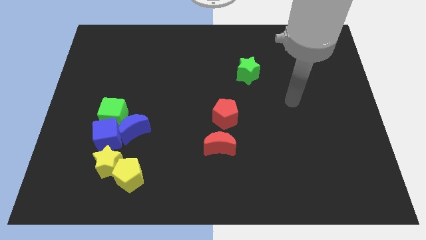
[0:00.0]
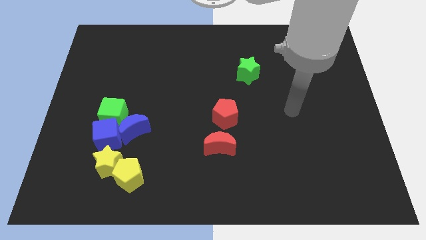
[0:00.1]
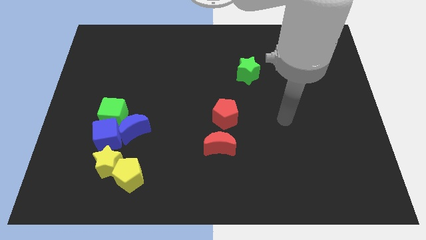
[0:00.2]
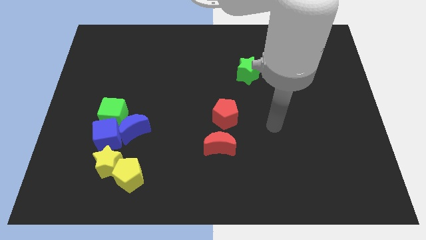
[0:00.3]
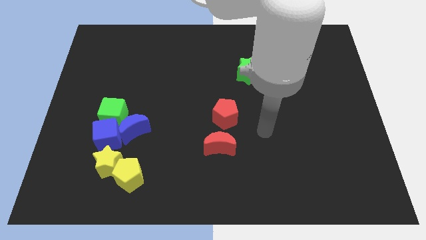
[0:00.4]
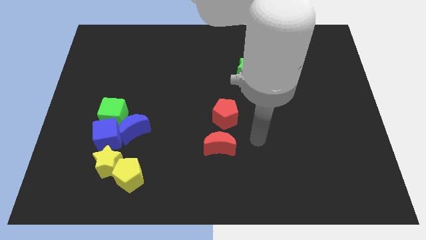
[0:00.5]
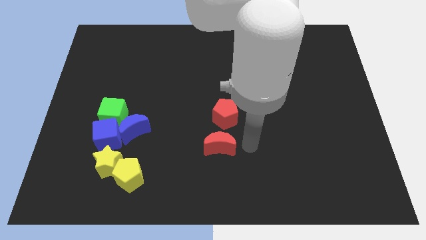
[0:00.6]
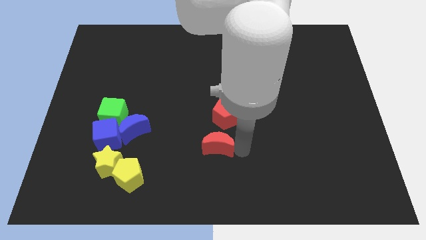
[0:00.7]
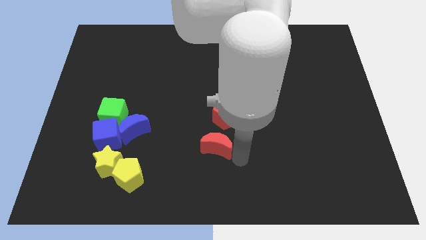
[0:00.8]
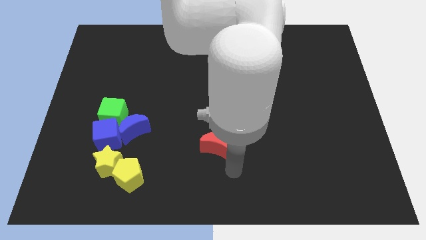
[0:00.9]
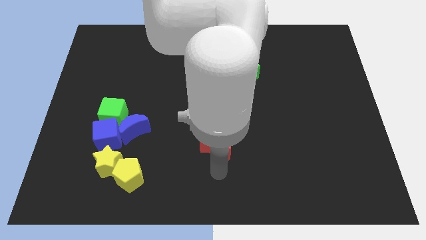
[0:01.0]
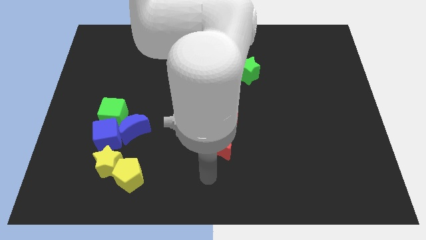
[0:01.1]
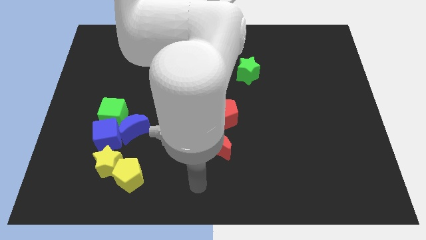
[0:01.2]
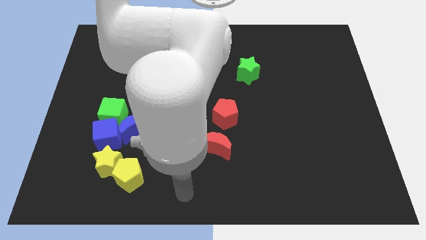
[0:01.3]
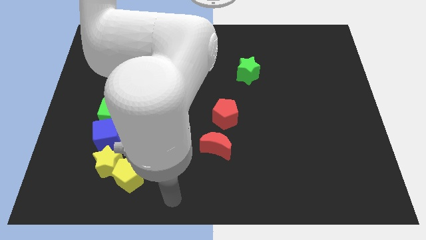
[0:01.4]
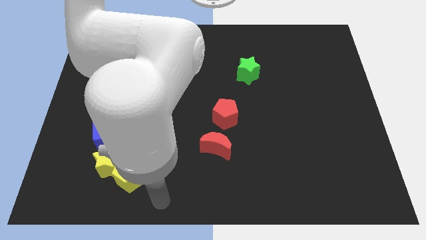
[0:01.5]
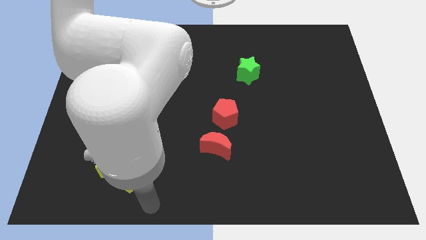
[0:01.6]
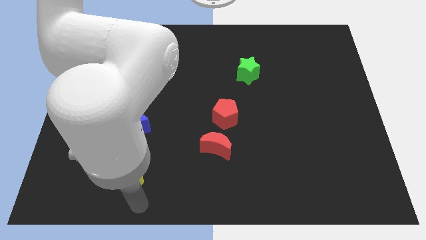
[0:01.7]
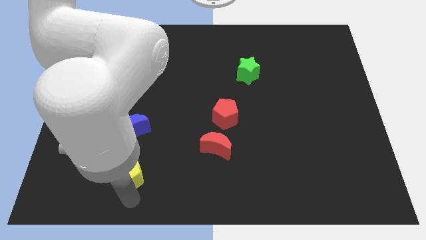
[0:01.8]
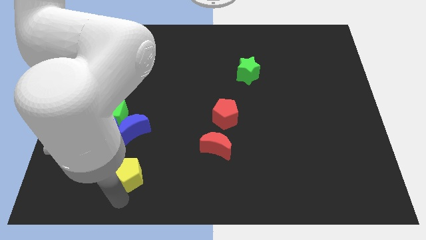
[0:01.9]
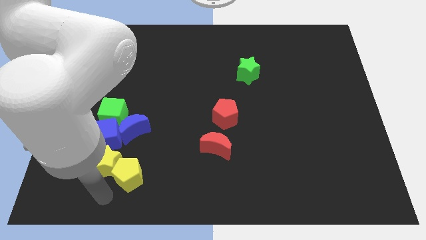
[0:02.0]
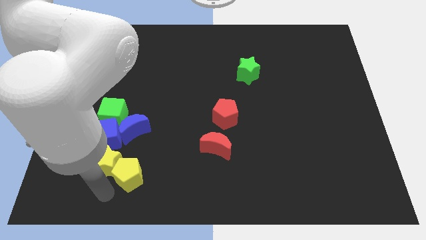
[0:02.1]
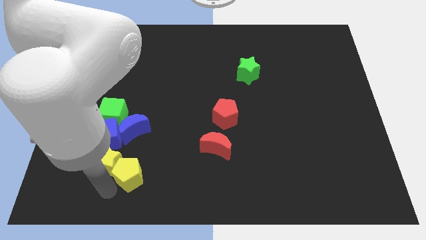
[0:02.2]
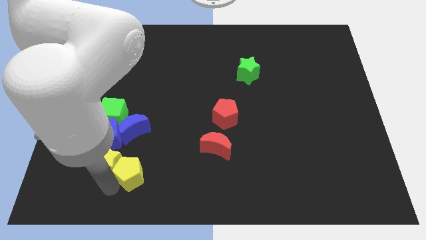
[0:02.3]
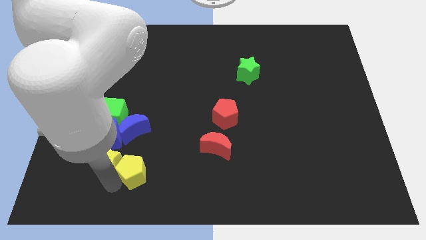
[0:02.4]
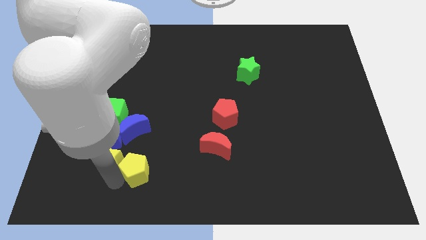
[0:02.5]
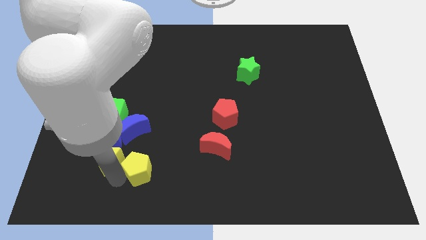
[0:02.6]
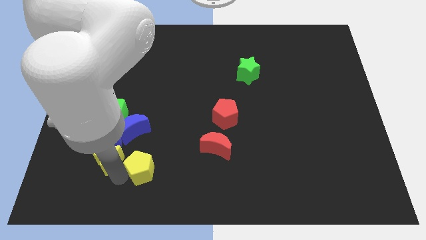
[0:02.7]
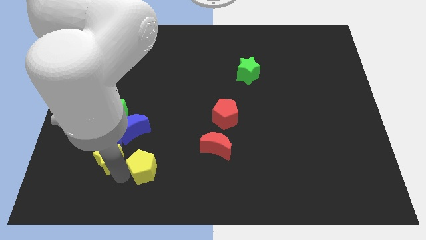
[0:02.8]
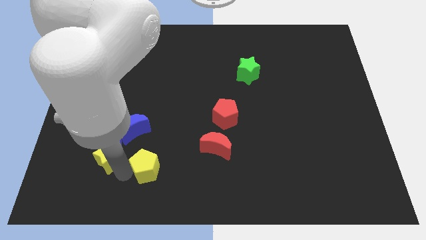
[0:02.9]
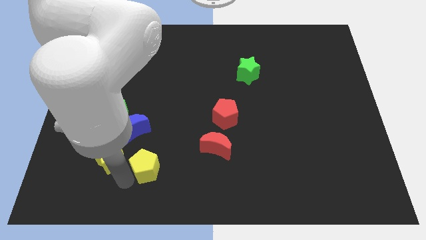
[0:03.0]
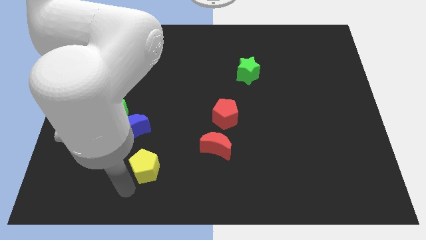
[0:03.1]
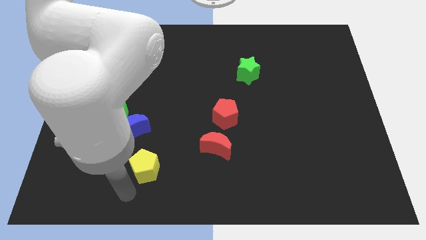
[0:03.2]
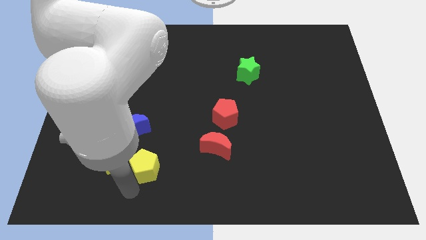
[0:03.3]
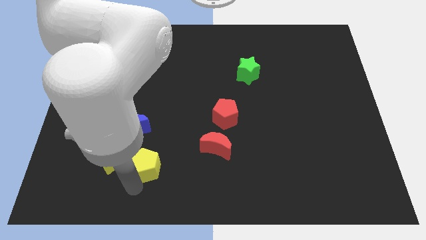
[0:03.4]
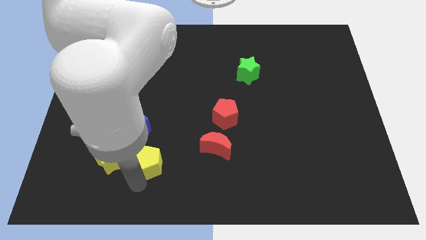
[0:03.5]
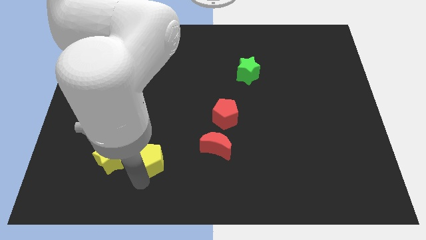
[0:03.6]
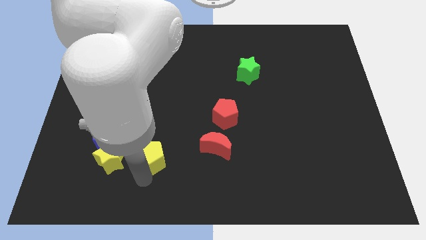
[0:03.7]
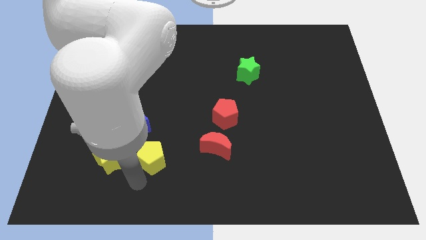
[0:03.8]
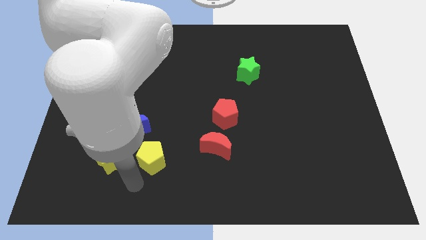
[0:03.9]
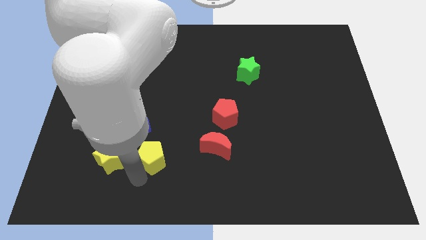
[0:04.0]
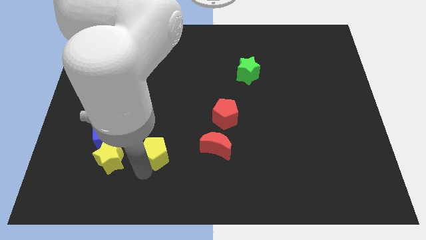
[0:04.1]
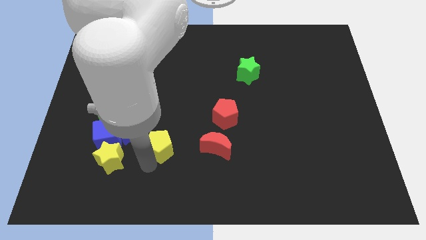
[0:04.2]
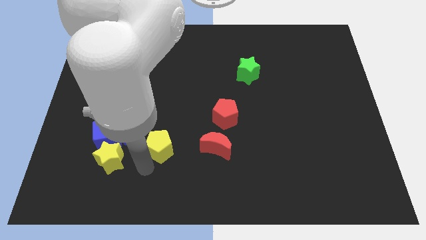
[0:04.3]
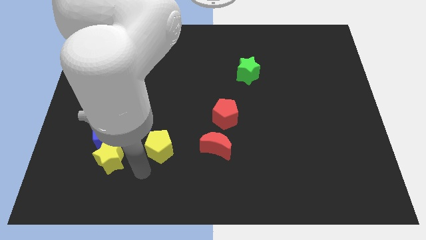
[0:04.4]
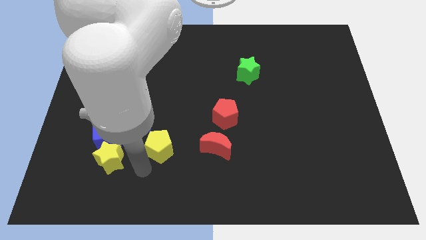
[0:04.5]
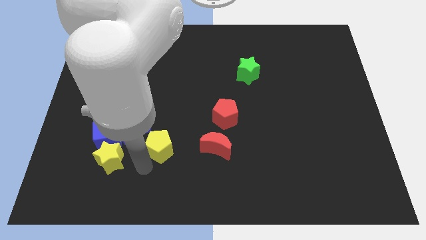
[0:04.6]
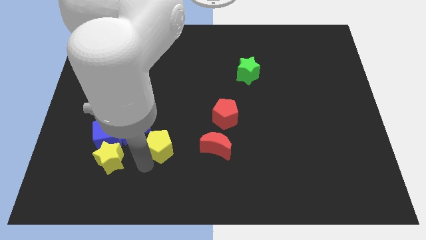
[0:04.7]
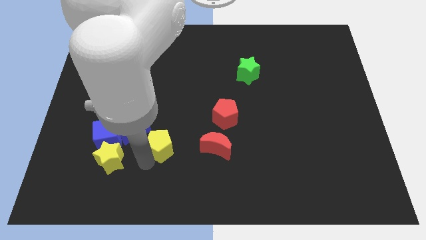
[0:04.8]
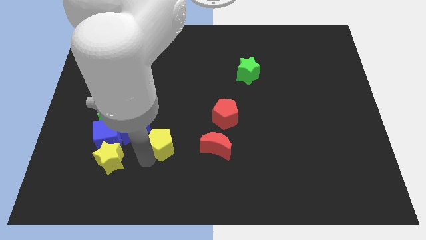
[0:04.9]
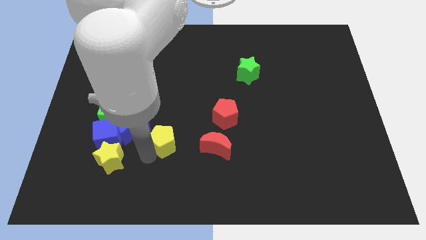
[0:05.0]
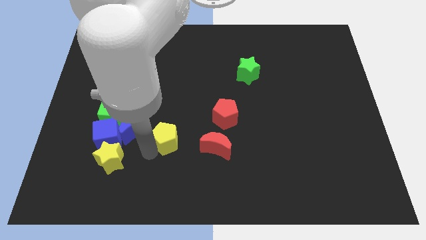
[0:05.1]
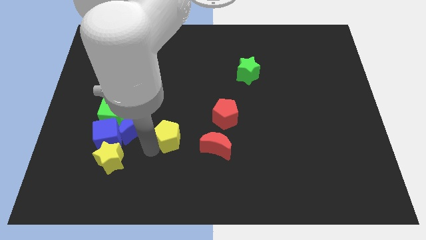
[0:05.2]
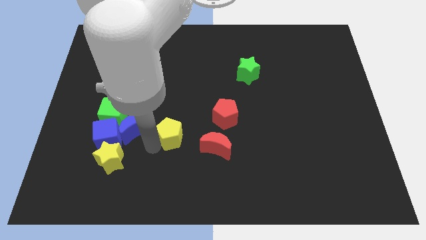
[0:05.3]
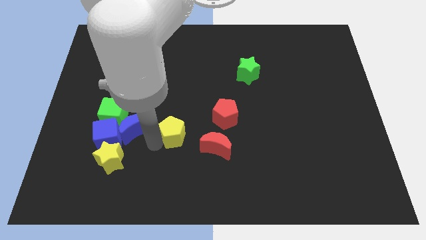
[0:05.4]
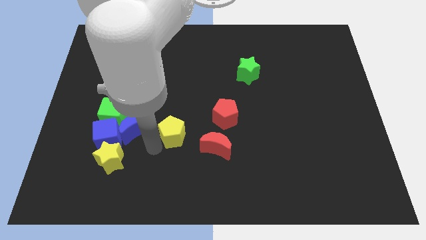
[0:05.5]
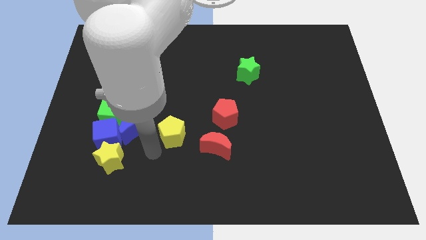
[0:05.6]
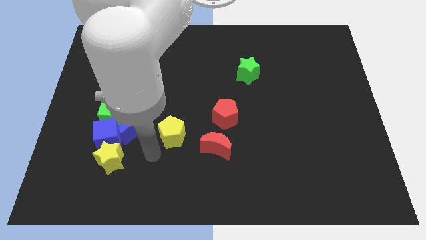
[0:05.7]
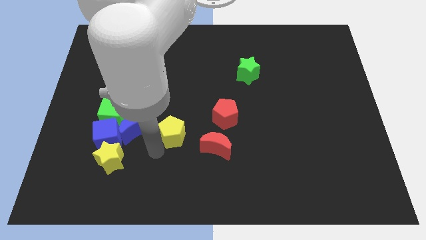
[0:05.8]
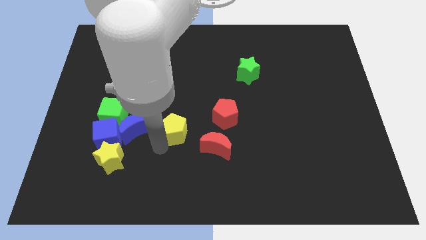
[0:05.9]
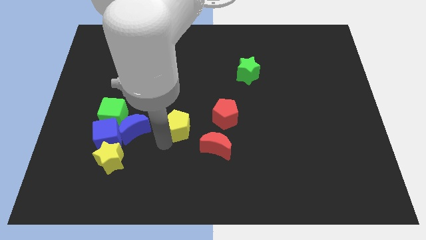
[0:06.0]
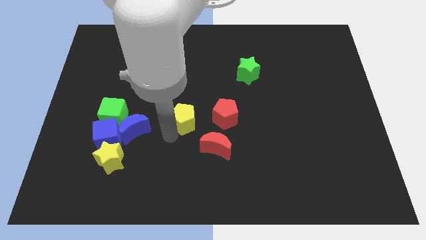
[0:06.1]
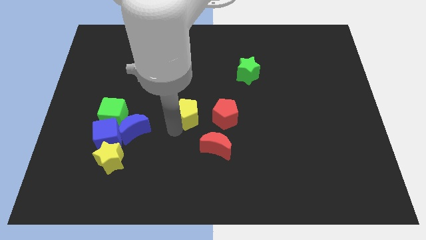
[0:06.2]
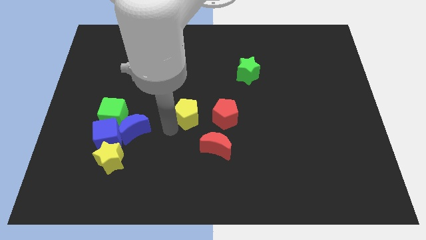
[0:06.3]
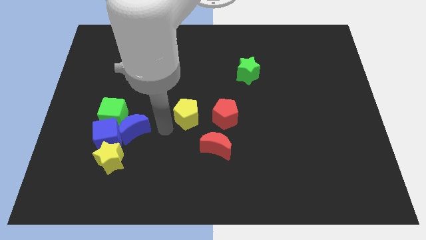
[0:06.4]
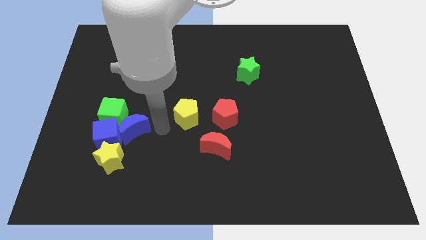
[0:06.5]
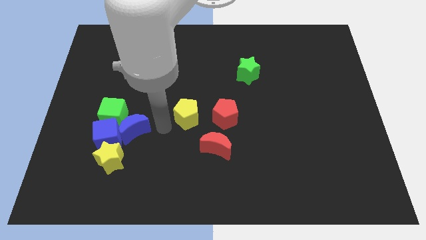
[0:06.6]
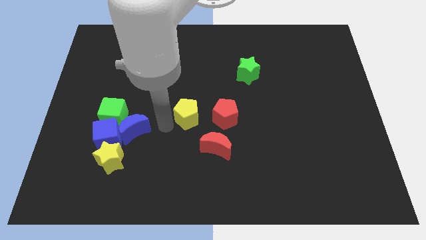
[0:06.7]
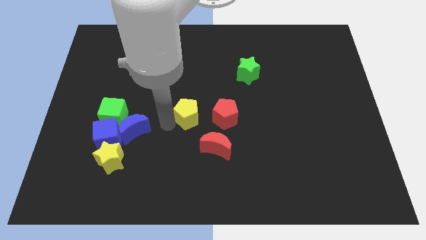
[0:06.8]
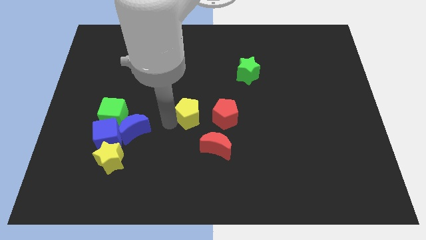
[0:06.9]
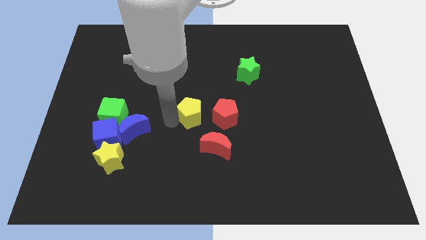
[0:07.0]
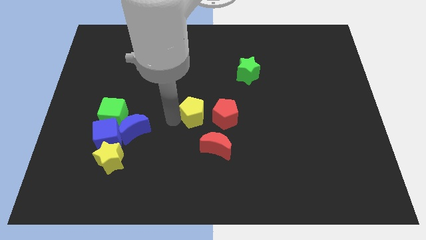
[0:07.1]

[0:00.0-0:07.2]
move the yellow pentagon upwards and then to the right

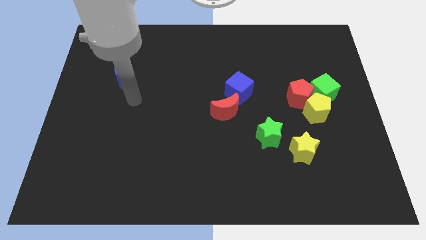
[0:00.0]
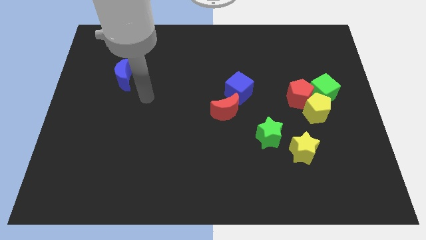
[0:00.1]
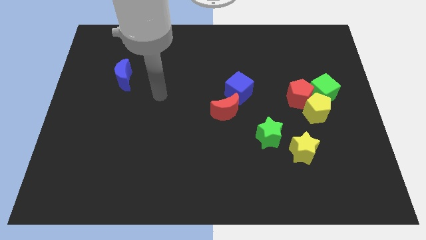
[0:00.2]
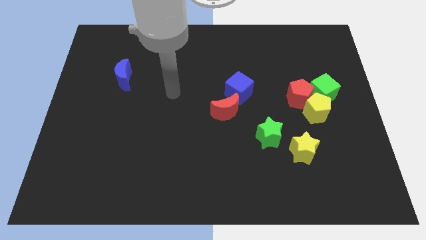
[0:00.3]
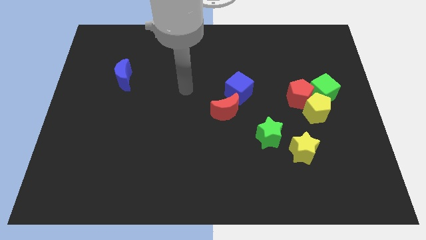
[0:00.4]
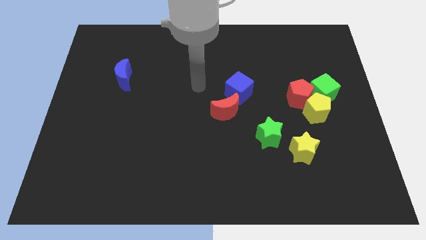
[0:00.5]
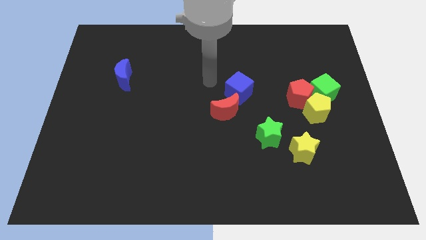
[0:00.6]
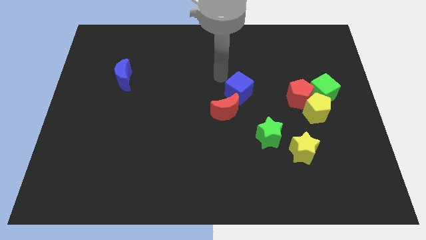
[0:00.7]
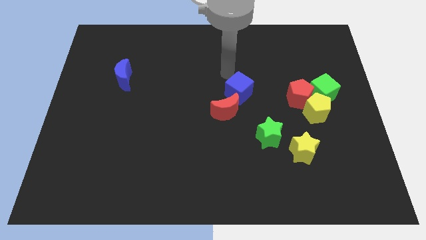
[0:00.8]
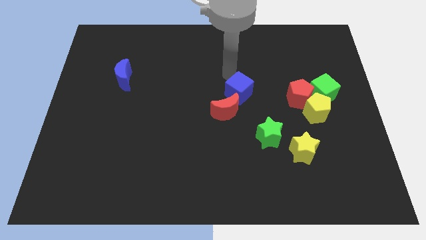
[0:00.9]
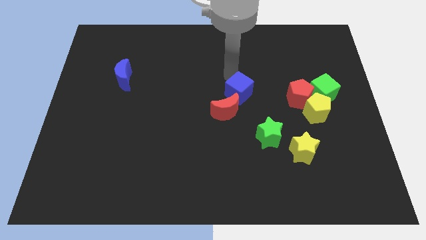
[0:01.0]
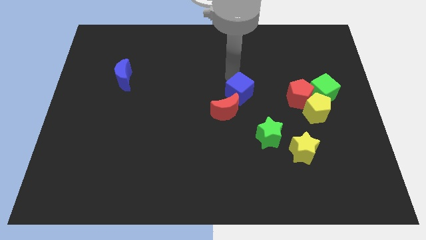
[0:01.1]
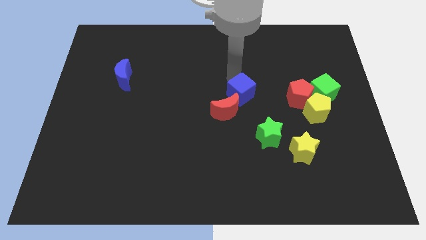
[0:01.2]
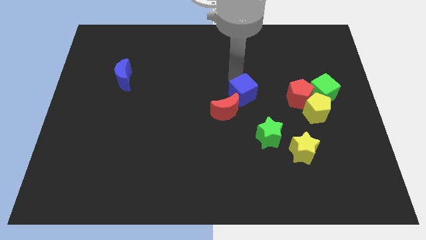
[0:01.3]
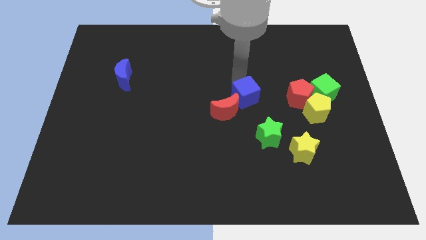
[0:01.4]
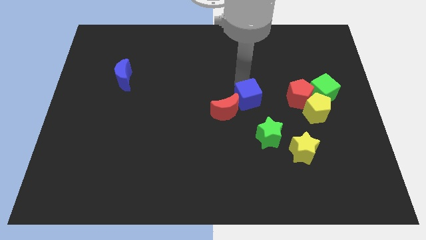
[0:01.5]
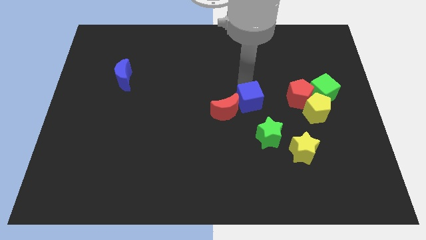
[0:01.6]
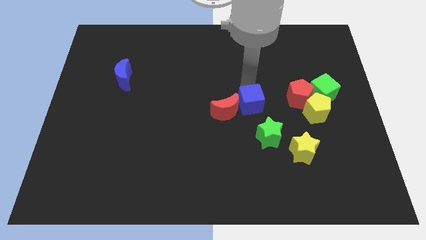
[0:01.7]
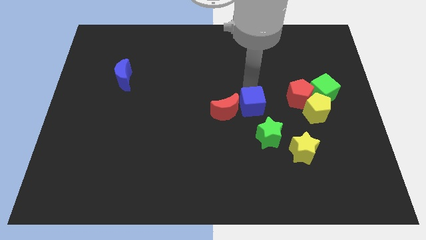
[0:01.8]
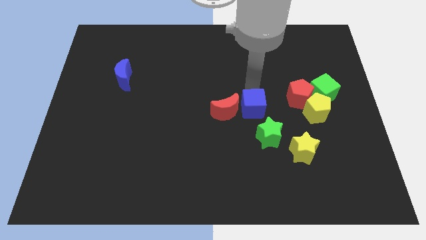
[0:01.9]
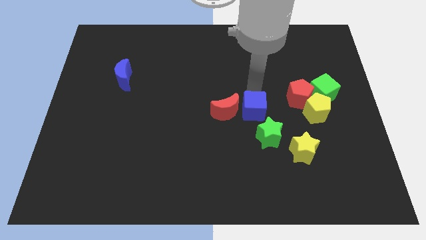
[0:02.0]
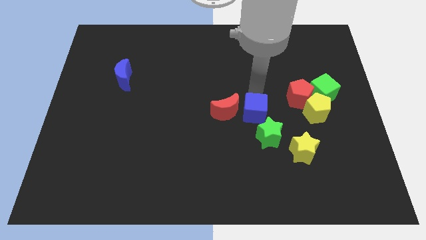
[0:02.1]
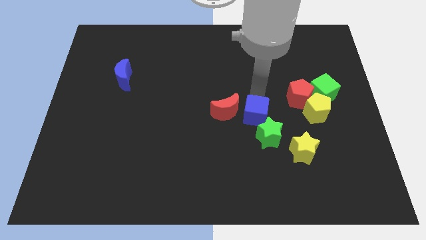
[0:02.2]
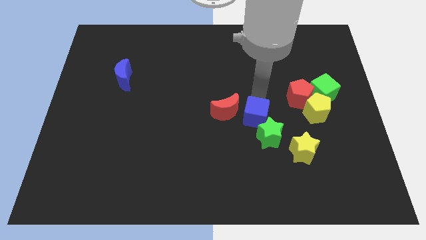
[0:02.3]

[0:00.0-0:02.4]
move the blue cube a little downwards
